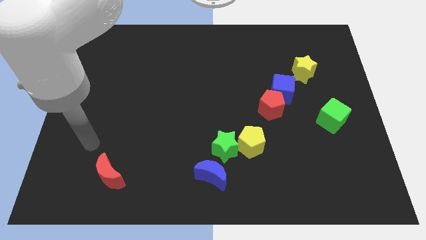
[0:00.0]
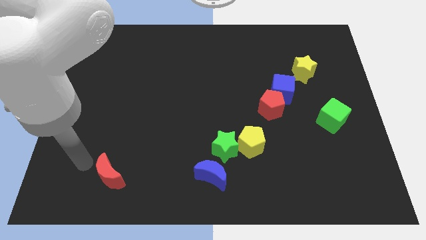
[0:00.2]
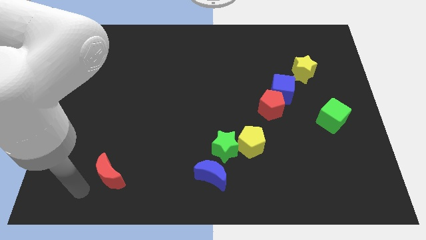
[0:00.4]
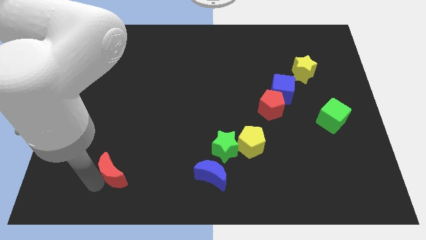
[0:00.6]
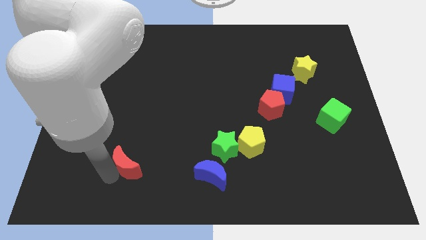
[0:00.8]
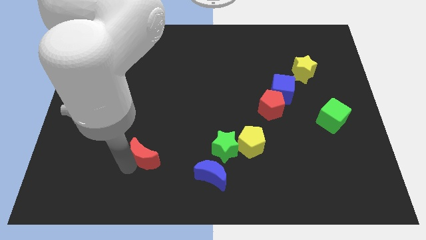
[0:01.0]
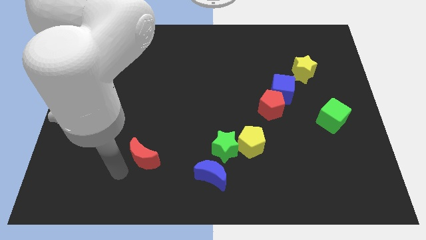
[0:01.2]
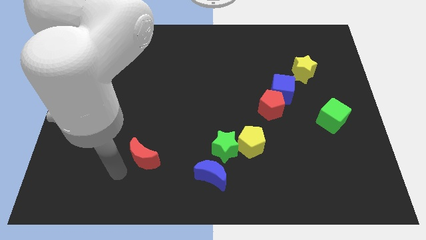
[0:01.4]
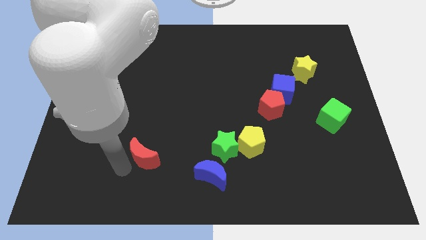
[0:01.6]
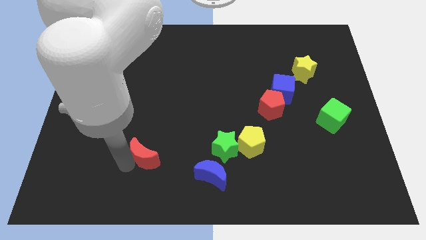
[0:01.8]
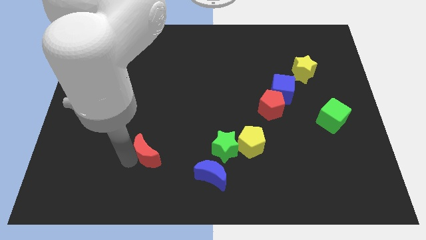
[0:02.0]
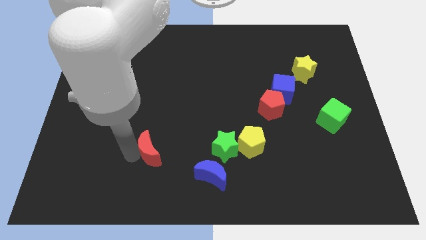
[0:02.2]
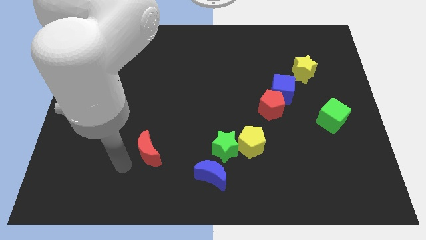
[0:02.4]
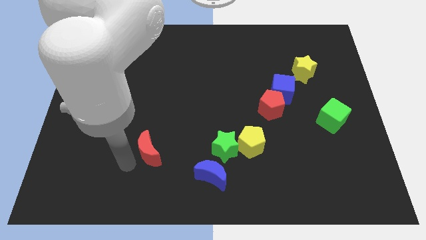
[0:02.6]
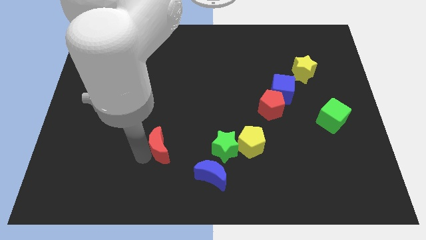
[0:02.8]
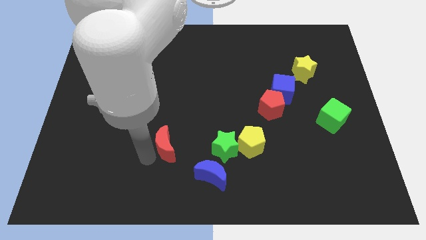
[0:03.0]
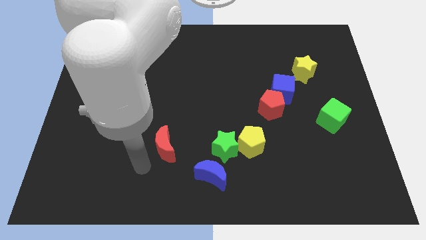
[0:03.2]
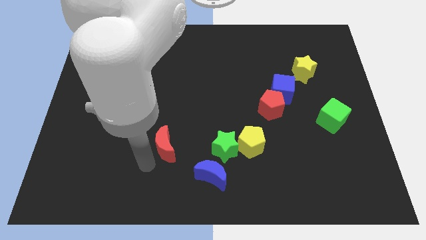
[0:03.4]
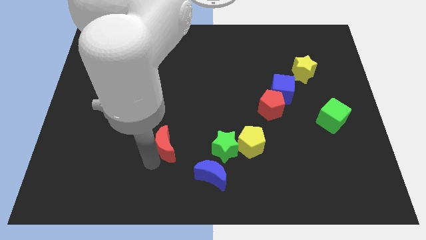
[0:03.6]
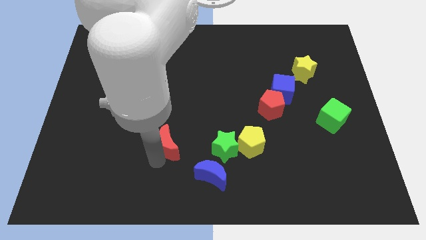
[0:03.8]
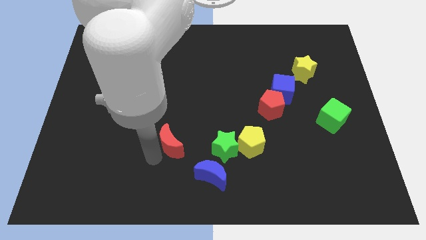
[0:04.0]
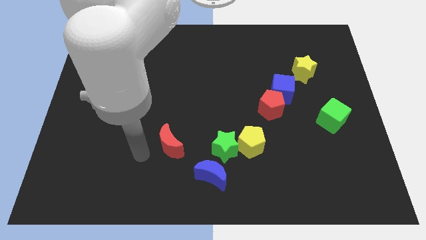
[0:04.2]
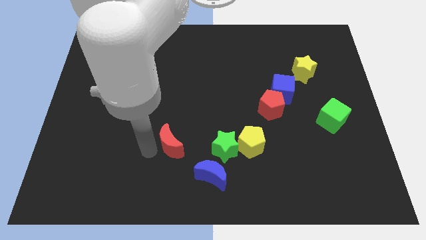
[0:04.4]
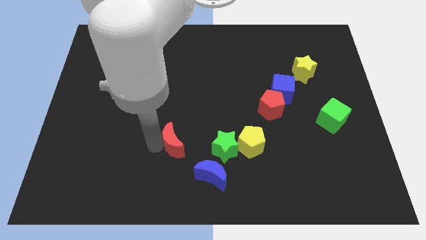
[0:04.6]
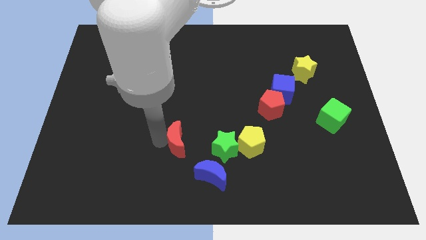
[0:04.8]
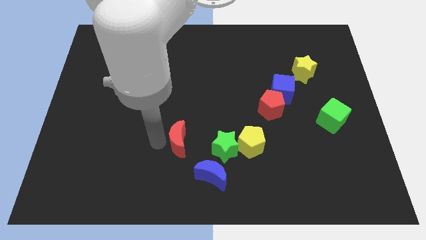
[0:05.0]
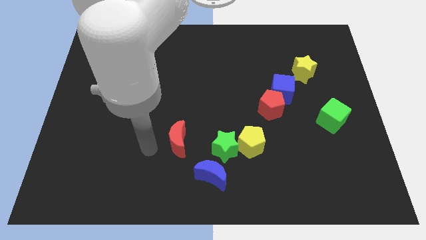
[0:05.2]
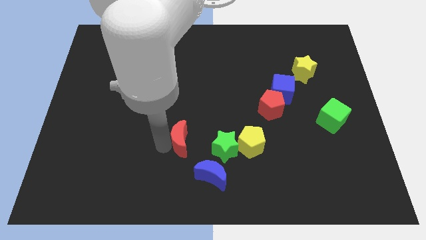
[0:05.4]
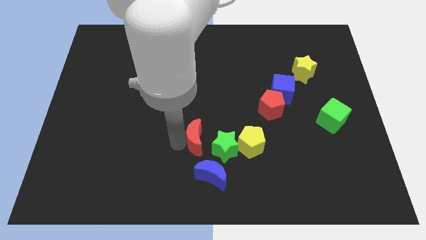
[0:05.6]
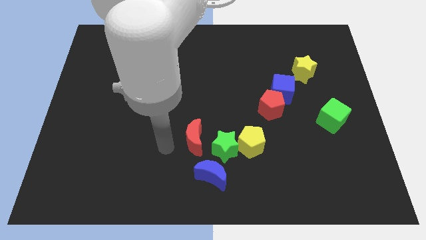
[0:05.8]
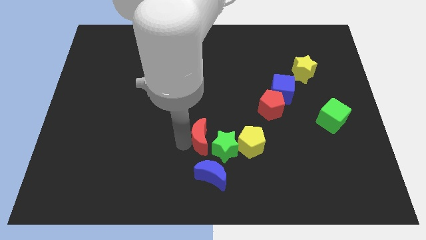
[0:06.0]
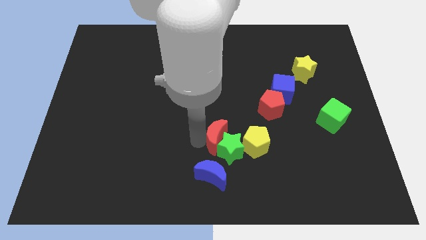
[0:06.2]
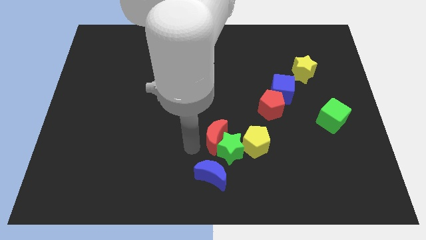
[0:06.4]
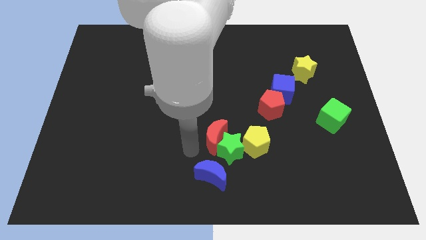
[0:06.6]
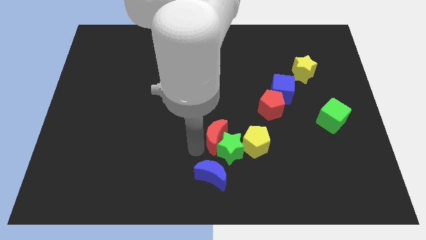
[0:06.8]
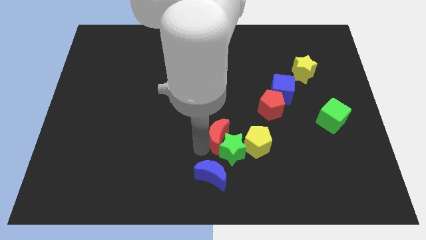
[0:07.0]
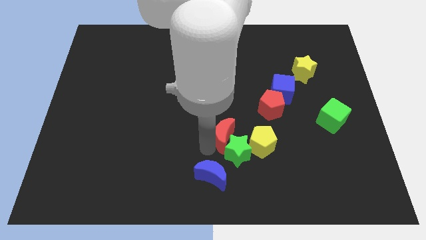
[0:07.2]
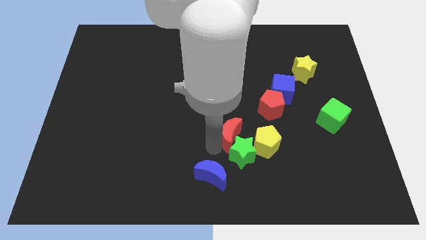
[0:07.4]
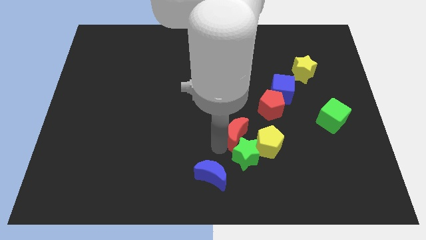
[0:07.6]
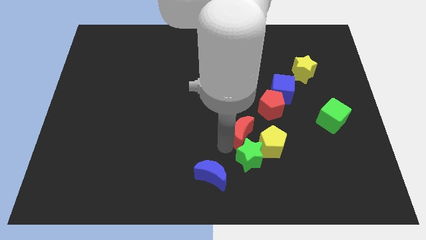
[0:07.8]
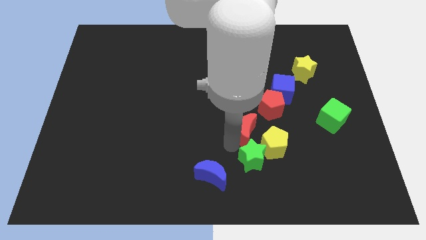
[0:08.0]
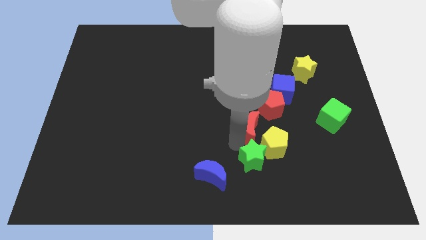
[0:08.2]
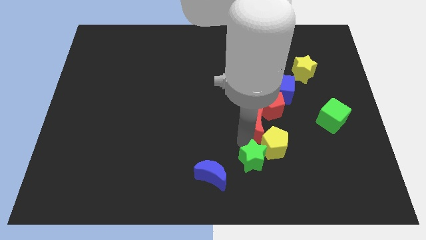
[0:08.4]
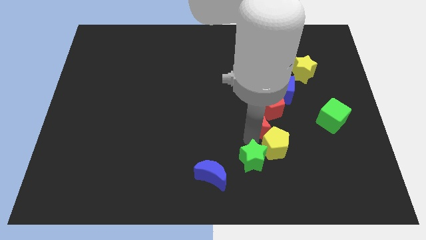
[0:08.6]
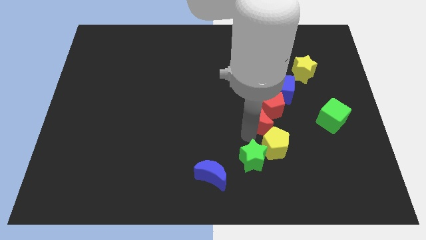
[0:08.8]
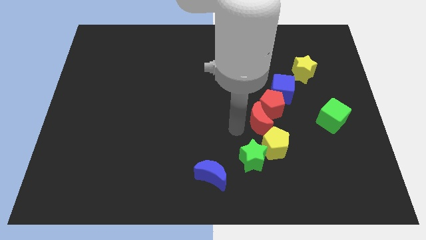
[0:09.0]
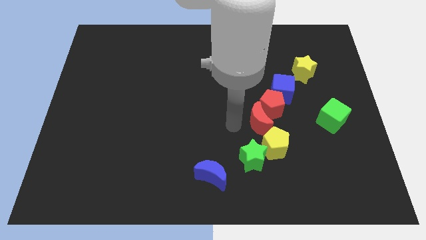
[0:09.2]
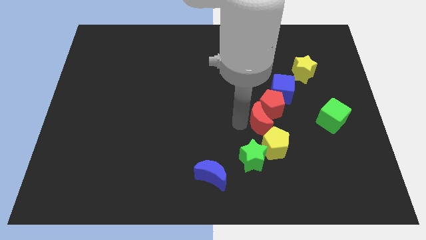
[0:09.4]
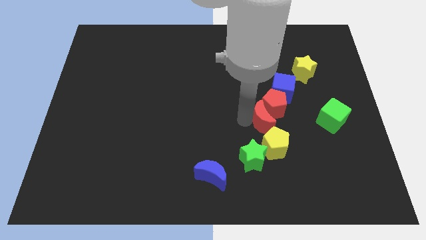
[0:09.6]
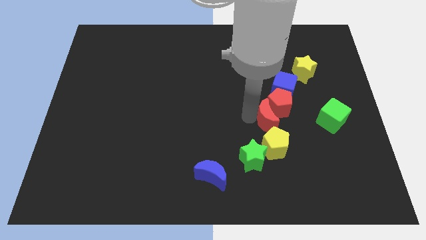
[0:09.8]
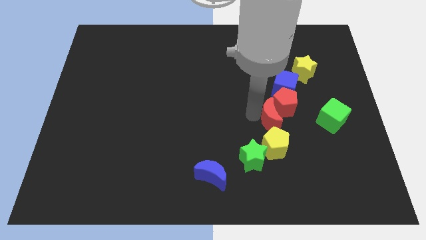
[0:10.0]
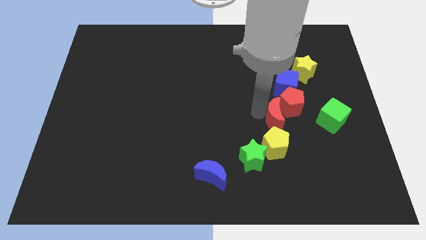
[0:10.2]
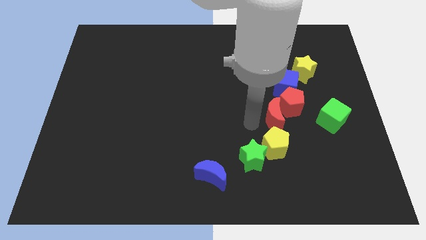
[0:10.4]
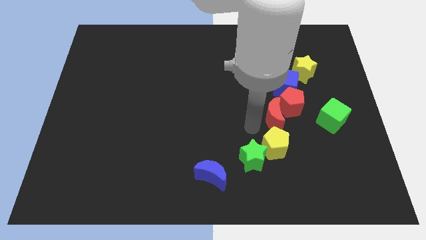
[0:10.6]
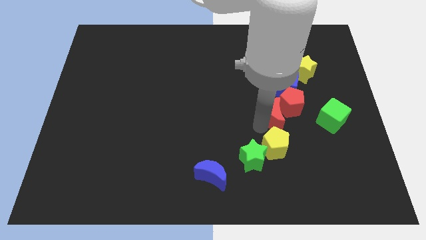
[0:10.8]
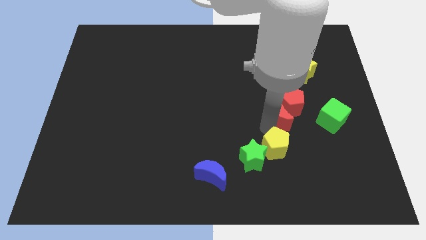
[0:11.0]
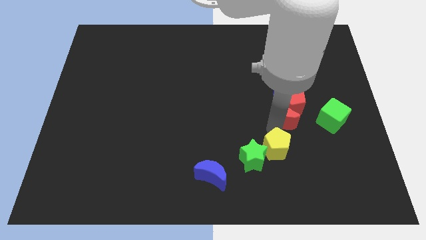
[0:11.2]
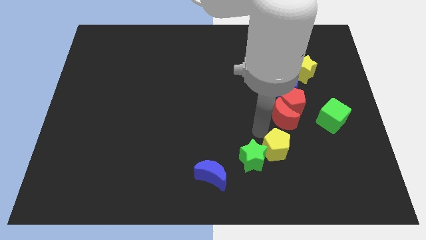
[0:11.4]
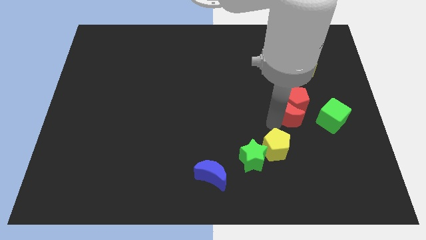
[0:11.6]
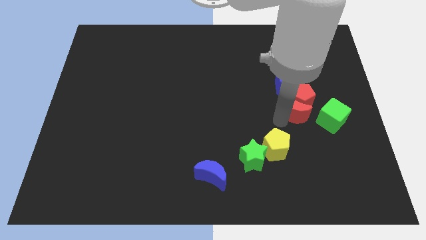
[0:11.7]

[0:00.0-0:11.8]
slide the red moon to the bottom of the yellow star

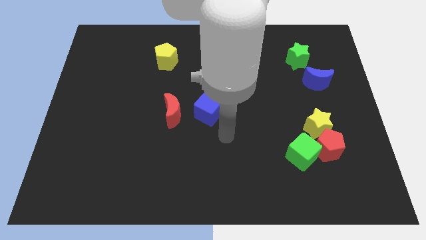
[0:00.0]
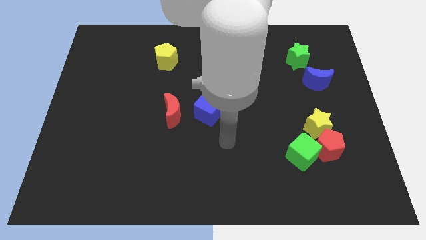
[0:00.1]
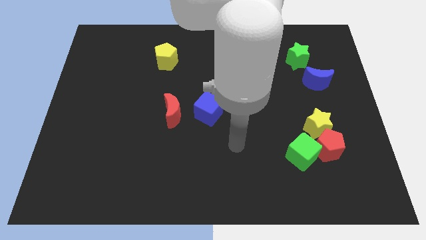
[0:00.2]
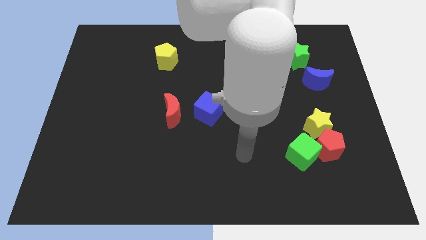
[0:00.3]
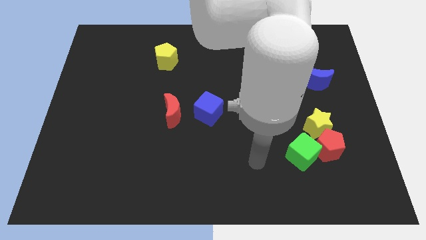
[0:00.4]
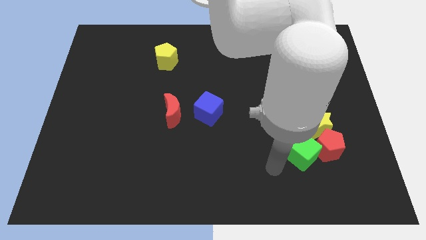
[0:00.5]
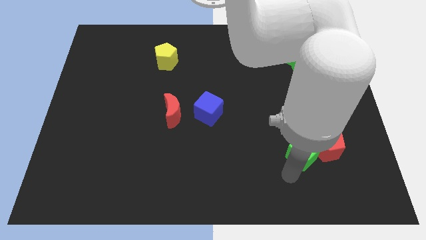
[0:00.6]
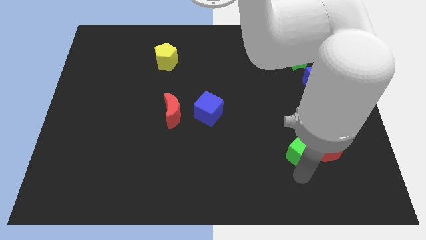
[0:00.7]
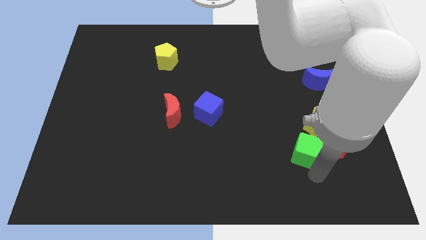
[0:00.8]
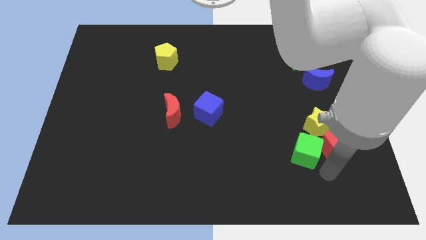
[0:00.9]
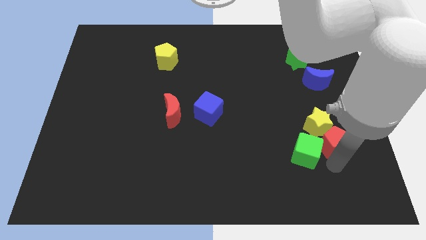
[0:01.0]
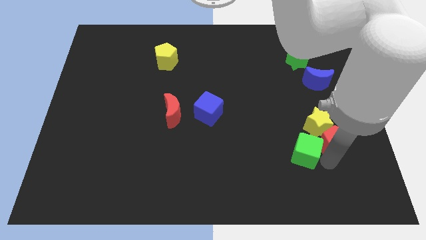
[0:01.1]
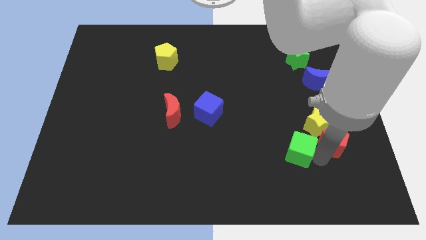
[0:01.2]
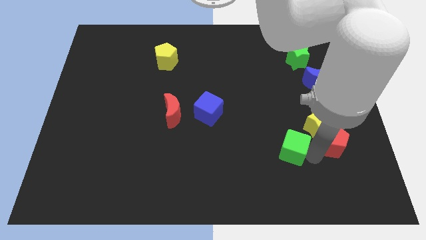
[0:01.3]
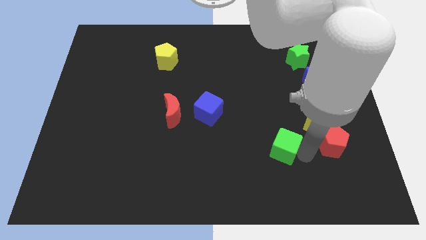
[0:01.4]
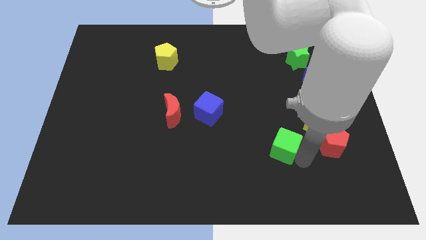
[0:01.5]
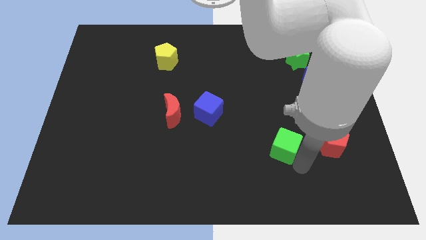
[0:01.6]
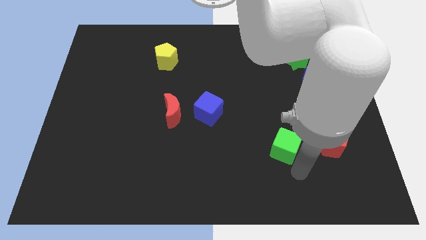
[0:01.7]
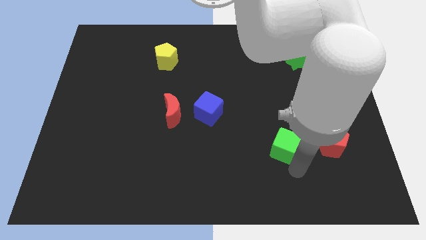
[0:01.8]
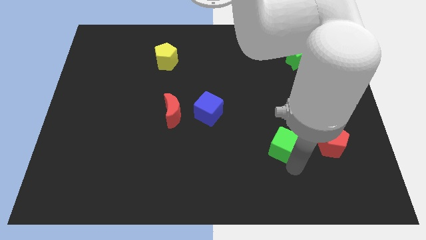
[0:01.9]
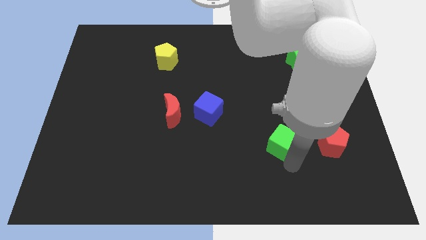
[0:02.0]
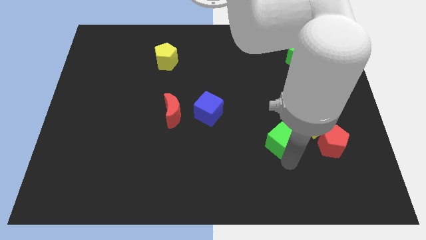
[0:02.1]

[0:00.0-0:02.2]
move the green cube to the left side of the yellow star
